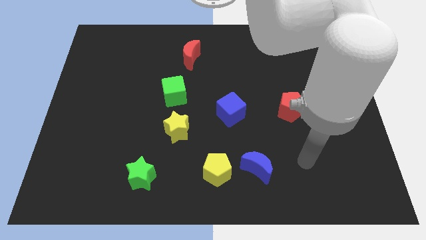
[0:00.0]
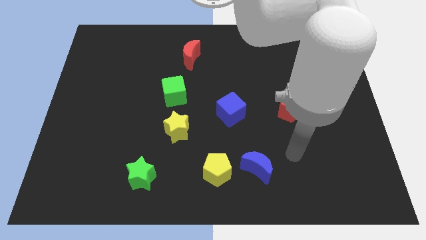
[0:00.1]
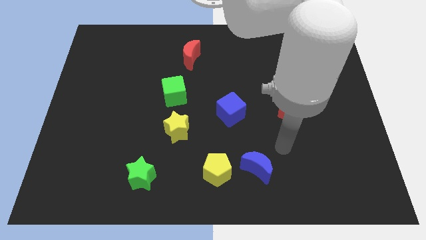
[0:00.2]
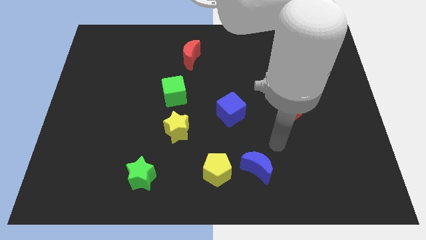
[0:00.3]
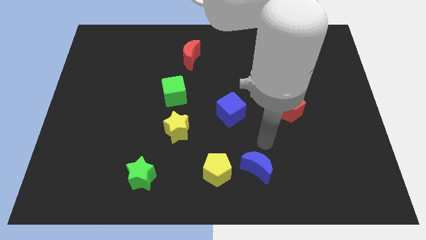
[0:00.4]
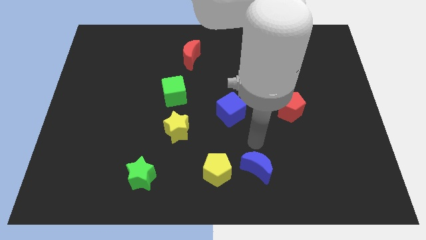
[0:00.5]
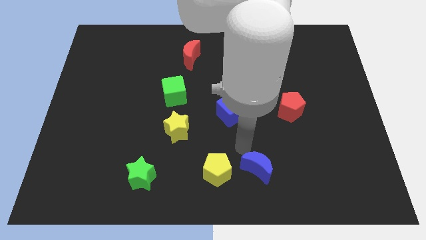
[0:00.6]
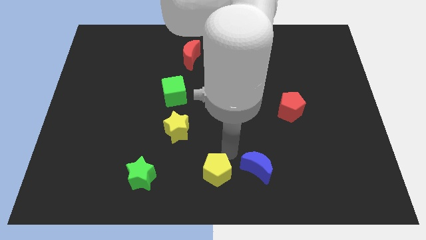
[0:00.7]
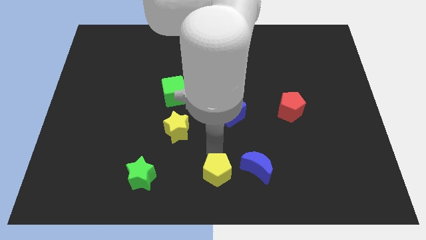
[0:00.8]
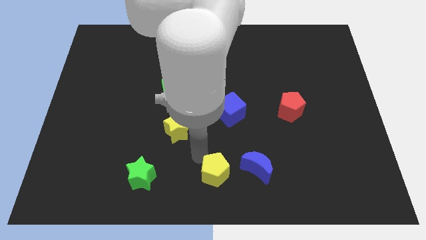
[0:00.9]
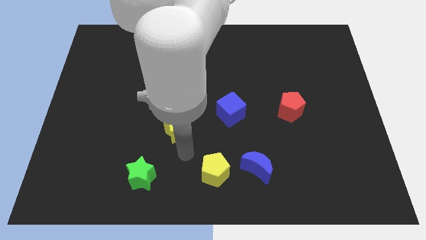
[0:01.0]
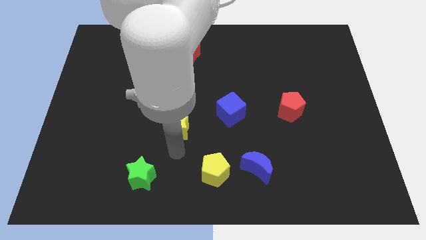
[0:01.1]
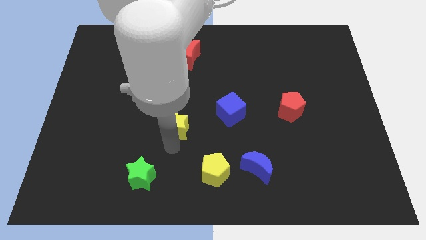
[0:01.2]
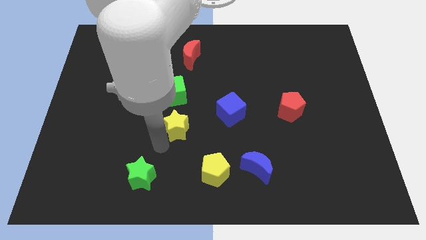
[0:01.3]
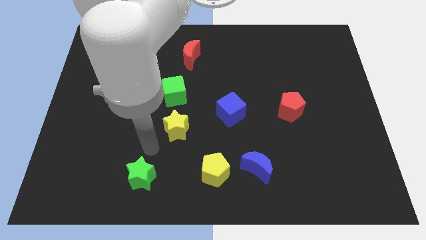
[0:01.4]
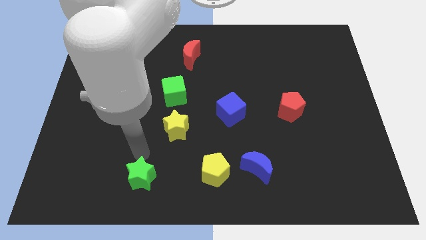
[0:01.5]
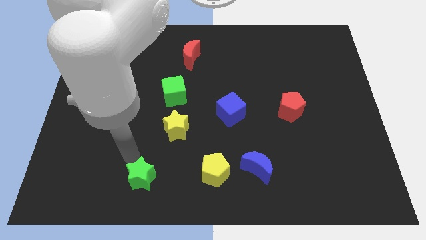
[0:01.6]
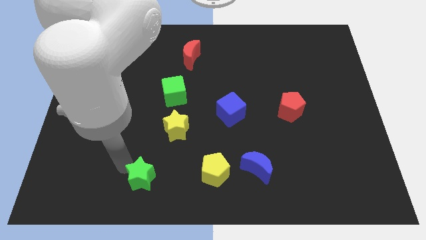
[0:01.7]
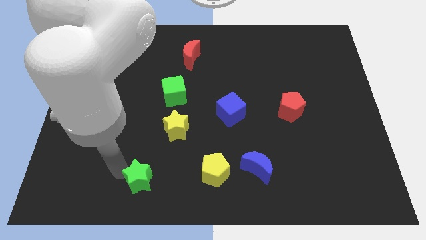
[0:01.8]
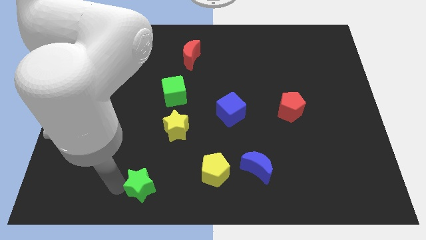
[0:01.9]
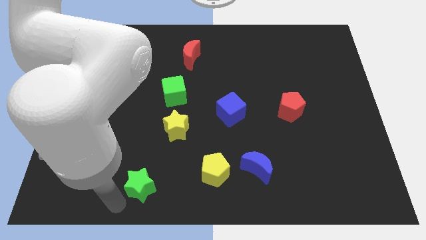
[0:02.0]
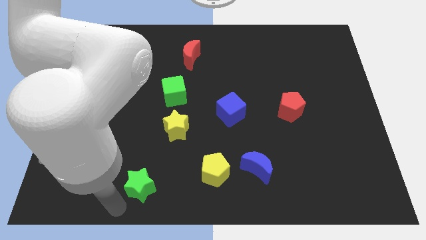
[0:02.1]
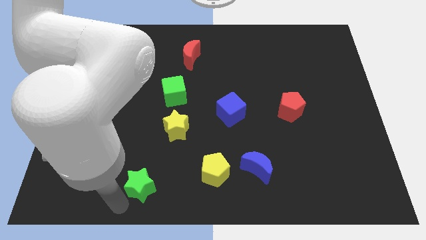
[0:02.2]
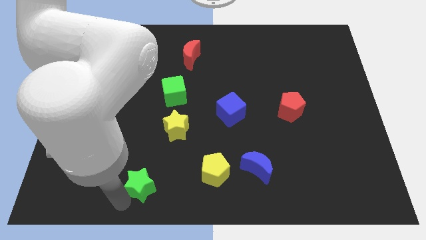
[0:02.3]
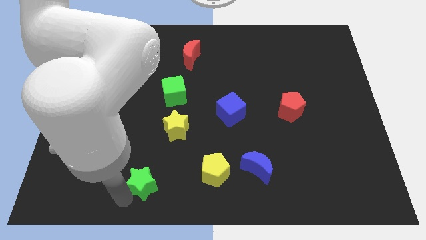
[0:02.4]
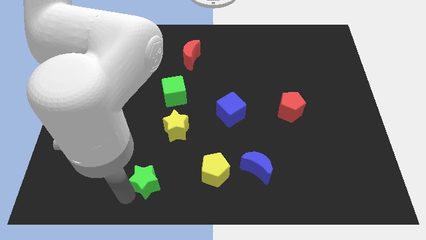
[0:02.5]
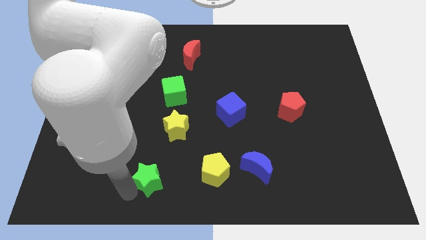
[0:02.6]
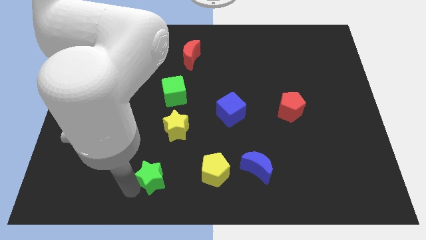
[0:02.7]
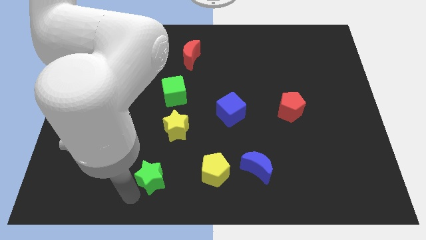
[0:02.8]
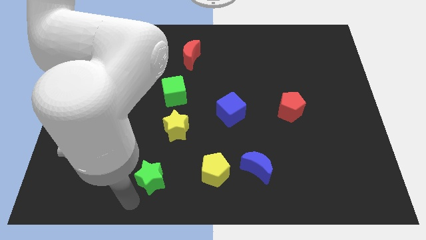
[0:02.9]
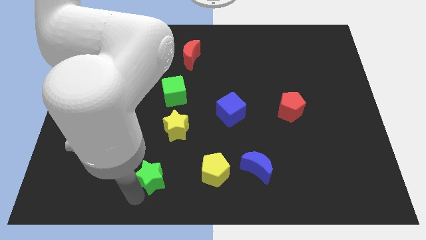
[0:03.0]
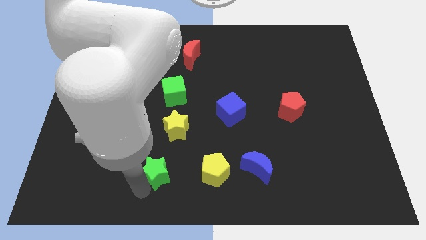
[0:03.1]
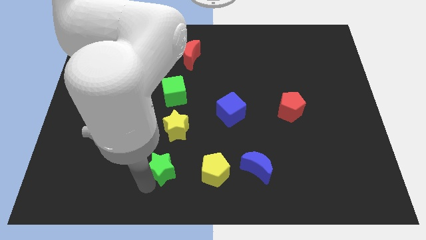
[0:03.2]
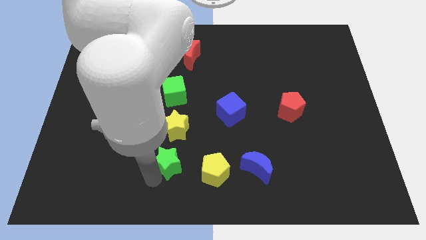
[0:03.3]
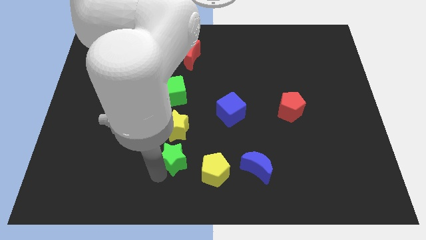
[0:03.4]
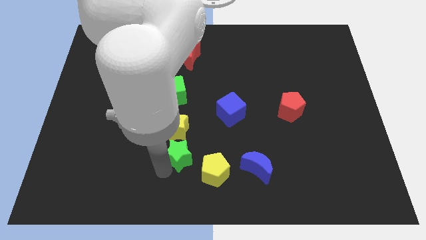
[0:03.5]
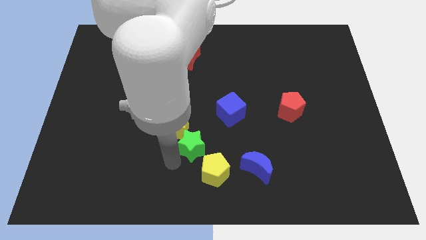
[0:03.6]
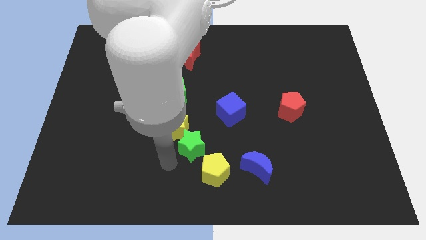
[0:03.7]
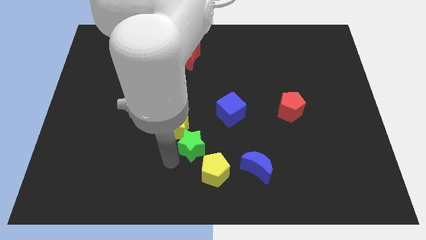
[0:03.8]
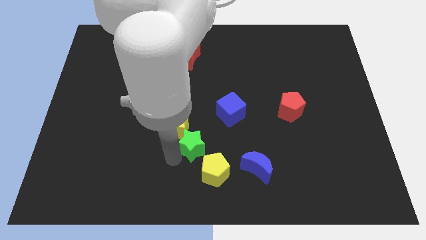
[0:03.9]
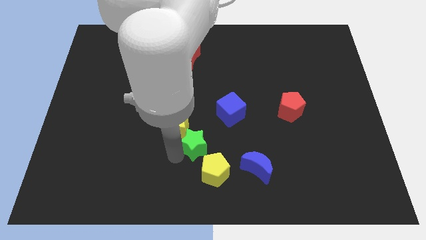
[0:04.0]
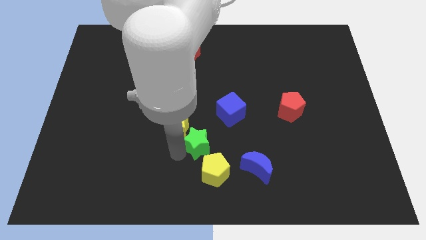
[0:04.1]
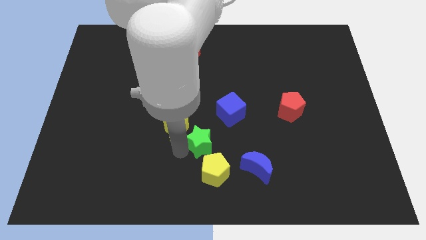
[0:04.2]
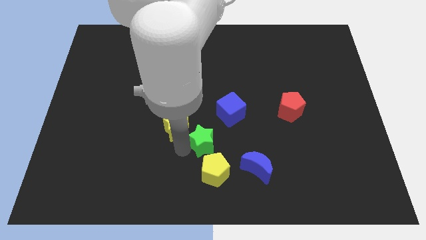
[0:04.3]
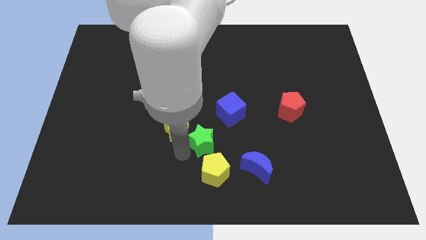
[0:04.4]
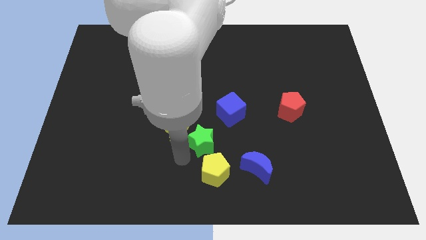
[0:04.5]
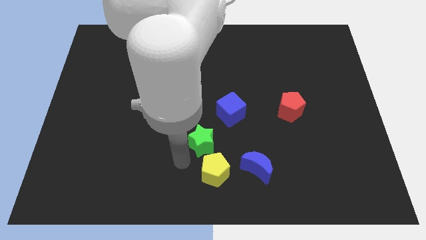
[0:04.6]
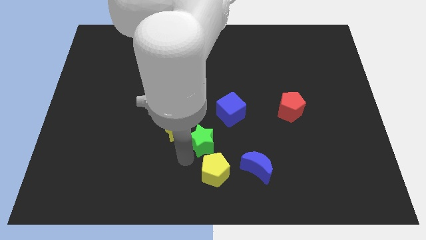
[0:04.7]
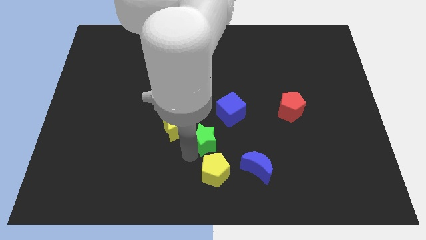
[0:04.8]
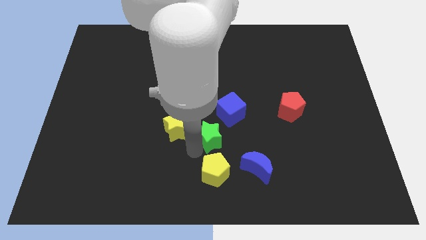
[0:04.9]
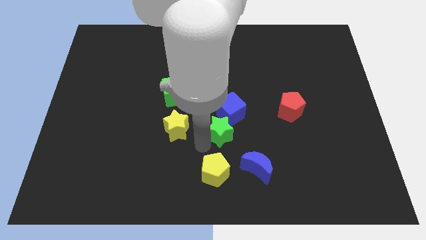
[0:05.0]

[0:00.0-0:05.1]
push the green star close to the blue cube

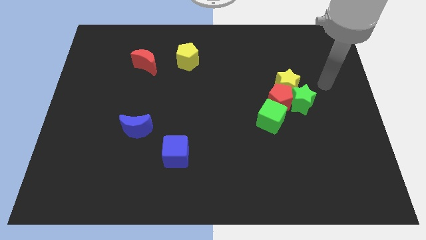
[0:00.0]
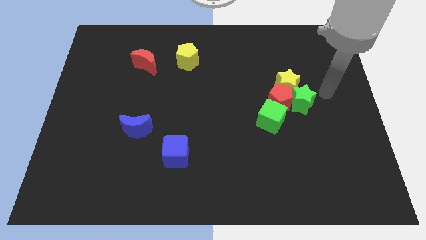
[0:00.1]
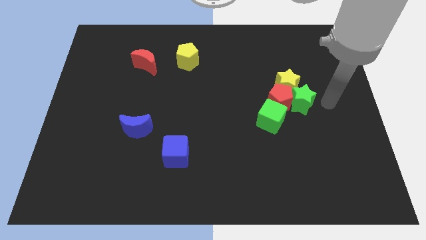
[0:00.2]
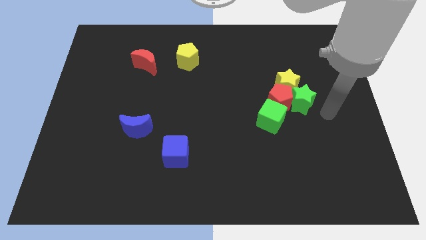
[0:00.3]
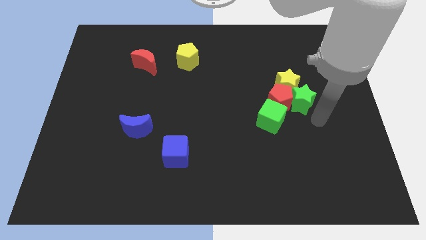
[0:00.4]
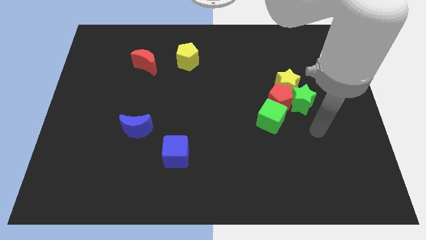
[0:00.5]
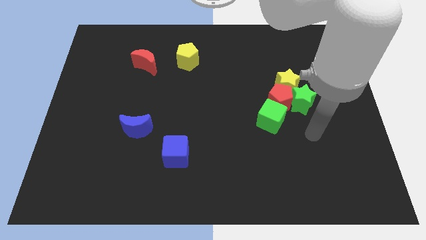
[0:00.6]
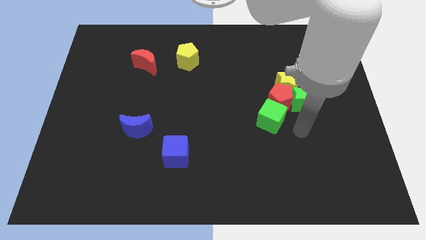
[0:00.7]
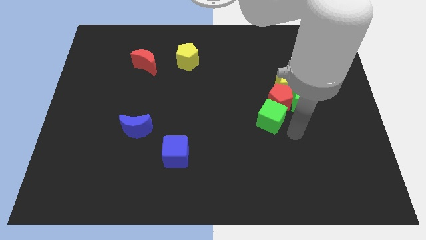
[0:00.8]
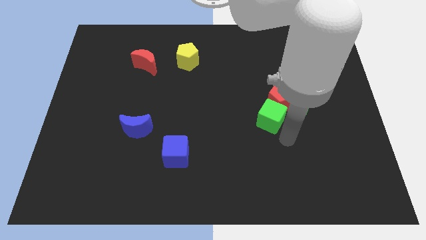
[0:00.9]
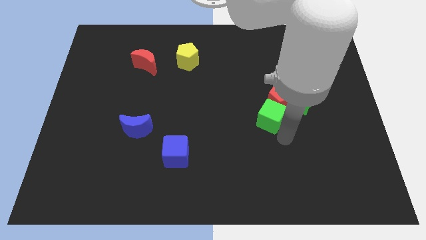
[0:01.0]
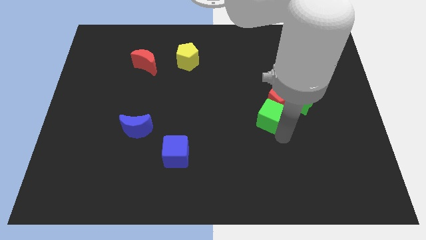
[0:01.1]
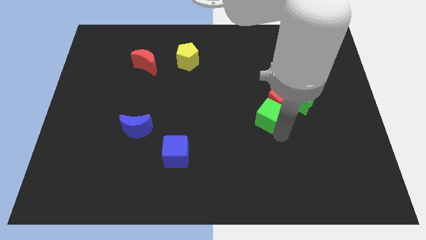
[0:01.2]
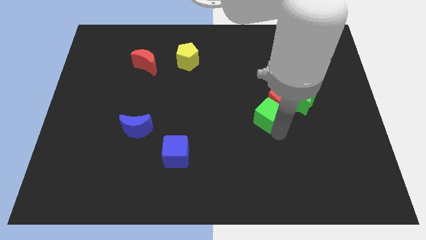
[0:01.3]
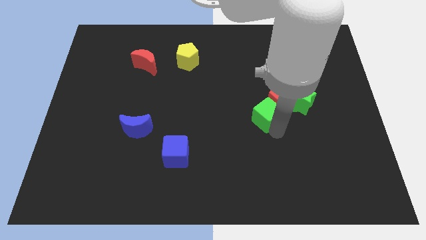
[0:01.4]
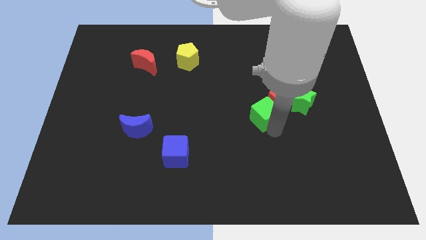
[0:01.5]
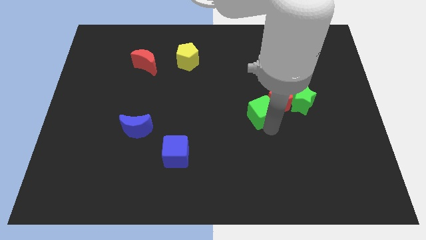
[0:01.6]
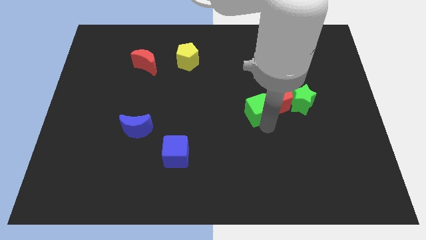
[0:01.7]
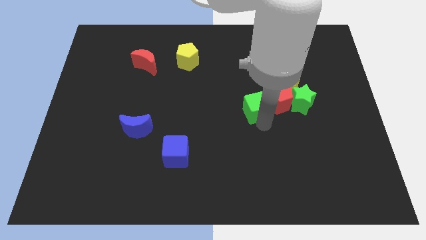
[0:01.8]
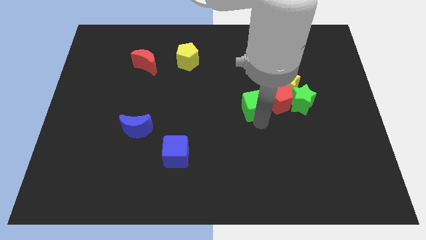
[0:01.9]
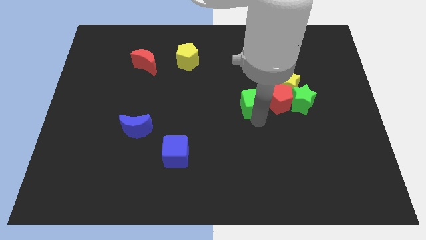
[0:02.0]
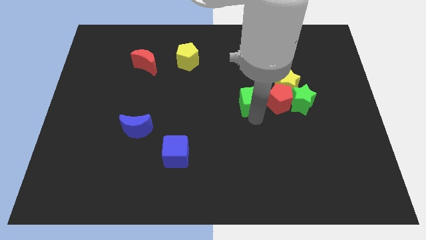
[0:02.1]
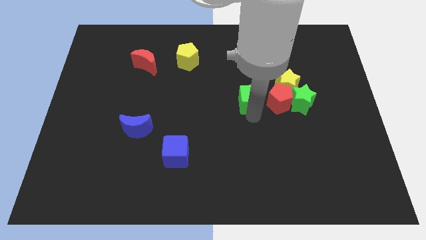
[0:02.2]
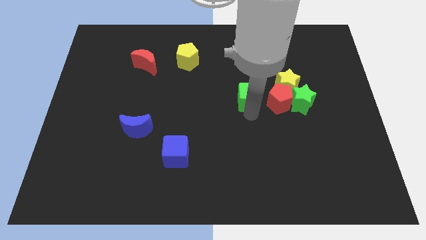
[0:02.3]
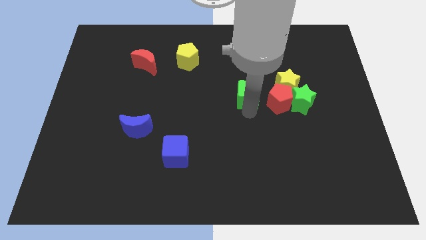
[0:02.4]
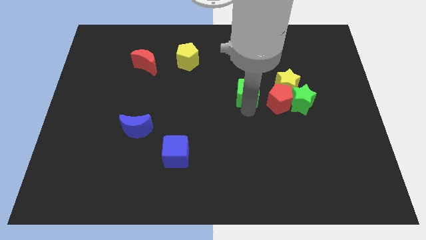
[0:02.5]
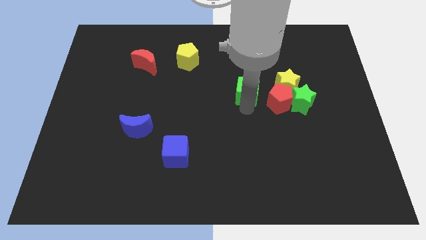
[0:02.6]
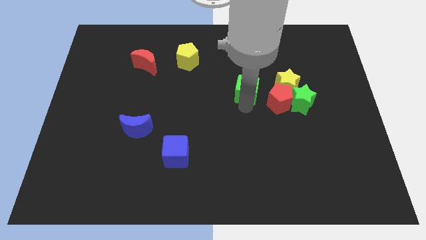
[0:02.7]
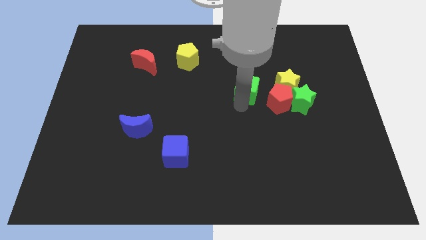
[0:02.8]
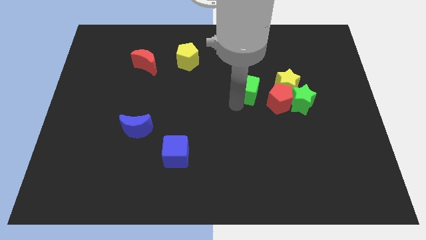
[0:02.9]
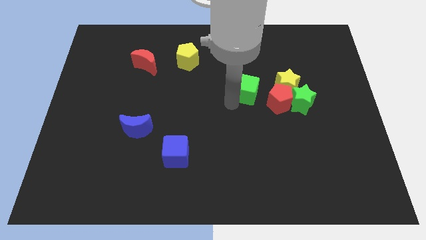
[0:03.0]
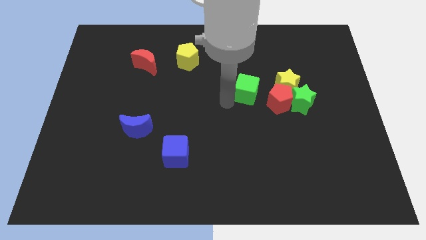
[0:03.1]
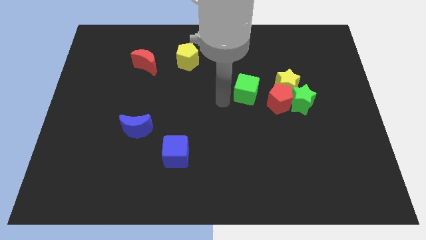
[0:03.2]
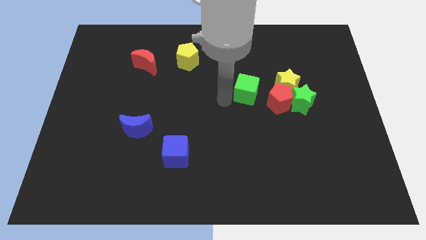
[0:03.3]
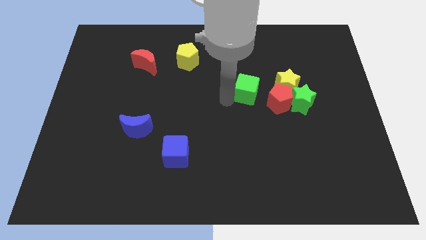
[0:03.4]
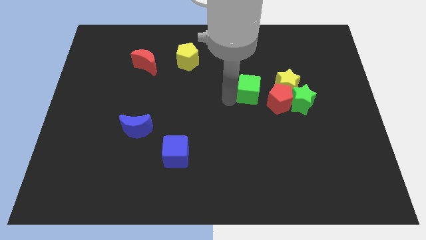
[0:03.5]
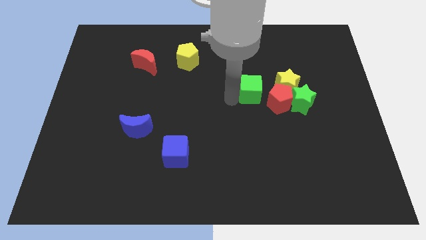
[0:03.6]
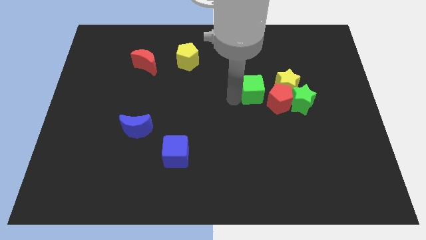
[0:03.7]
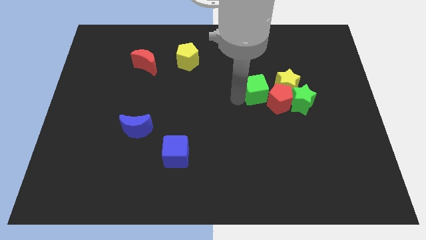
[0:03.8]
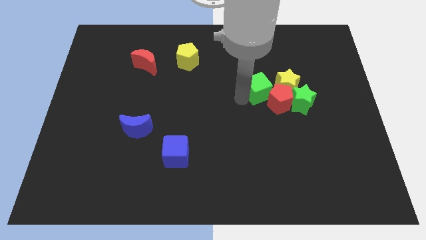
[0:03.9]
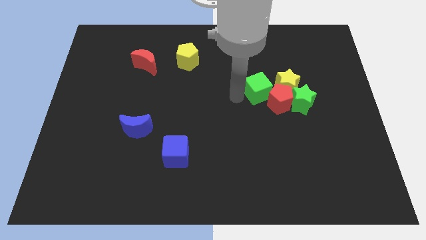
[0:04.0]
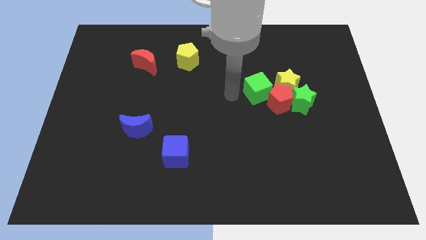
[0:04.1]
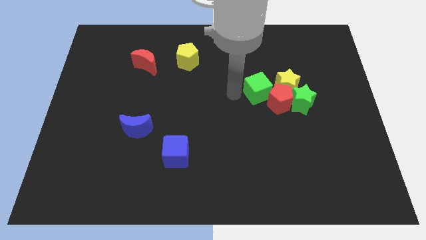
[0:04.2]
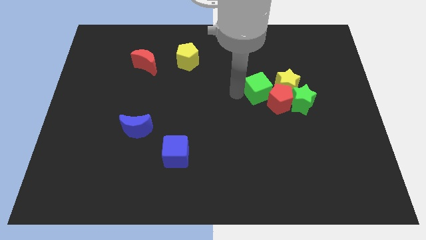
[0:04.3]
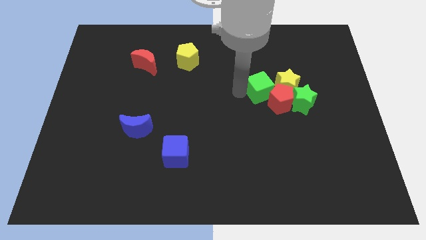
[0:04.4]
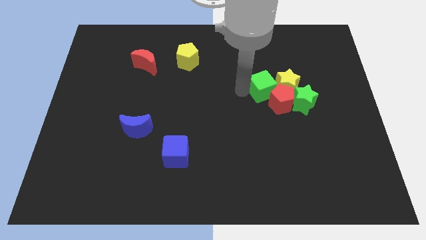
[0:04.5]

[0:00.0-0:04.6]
push the green cube to the yellow star
